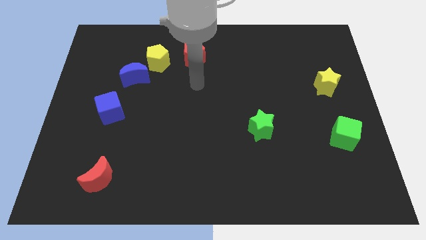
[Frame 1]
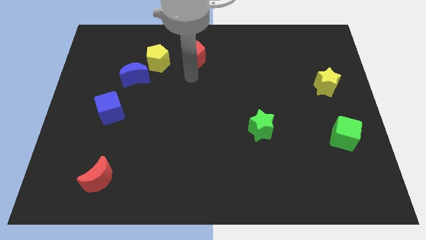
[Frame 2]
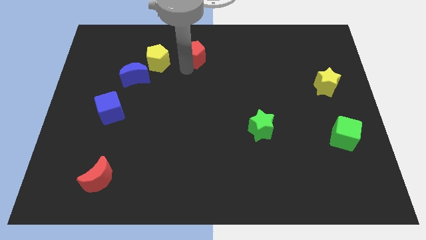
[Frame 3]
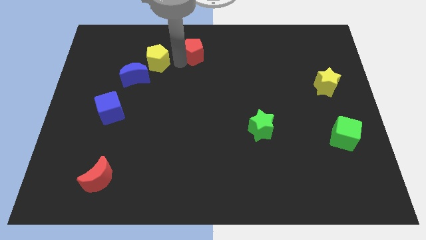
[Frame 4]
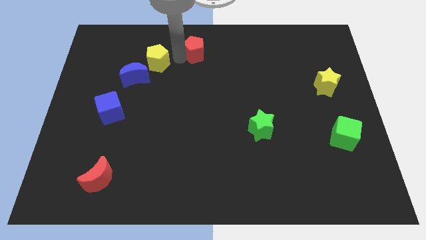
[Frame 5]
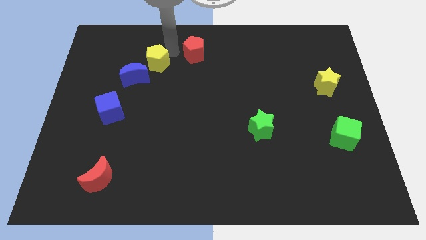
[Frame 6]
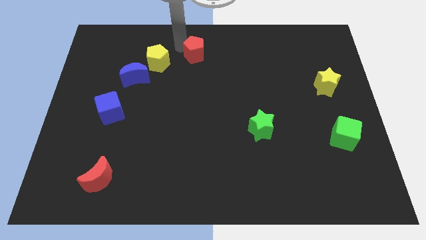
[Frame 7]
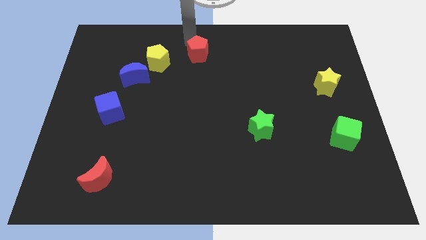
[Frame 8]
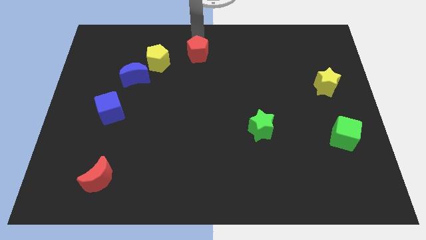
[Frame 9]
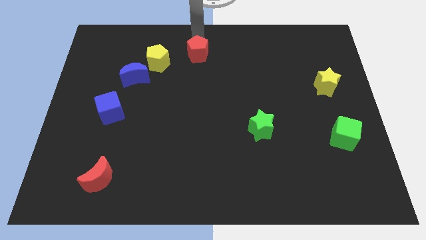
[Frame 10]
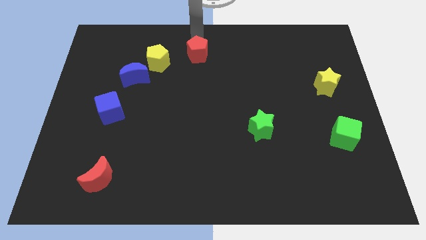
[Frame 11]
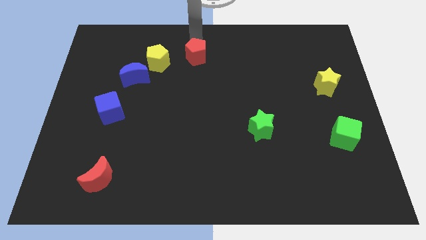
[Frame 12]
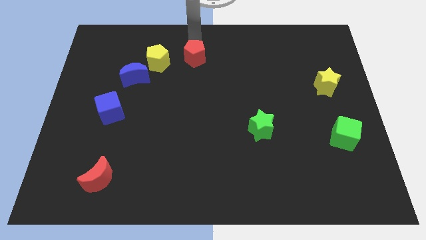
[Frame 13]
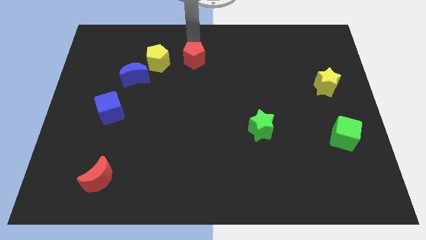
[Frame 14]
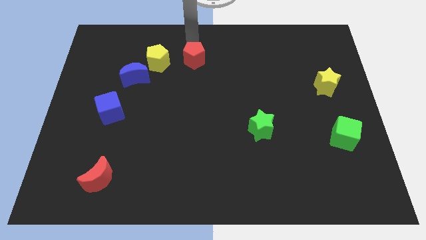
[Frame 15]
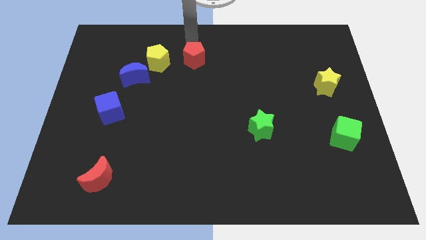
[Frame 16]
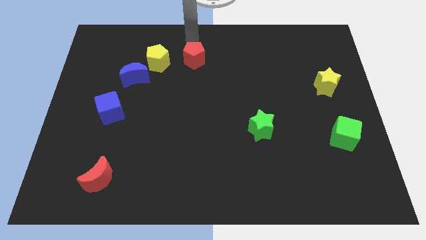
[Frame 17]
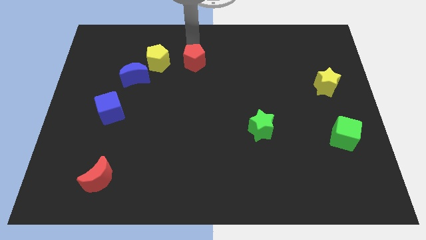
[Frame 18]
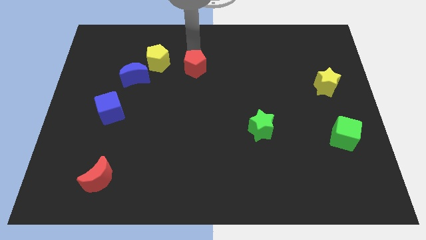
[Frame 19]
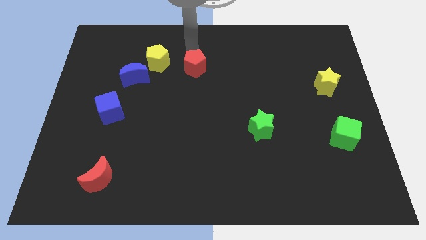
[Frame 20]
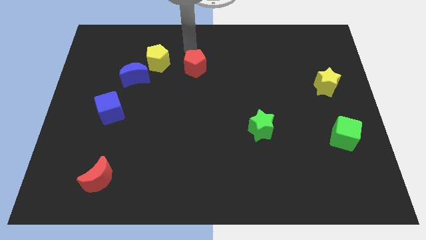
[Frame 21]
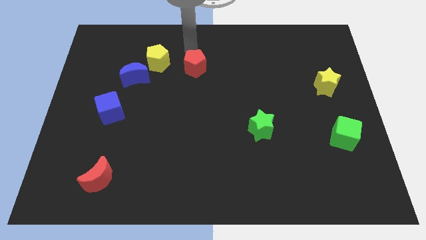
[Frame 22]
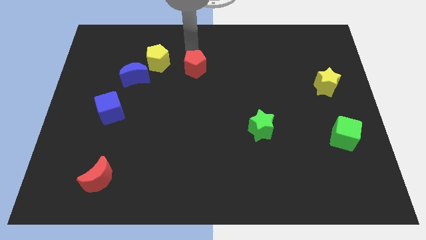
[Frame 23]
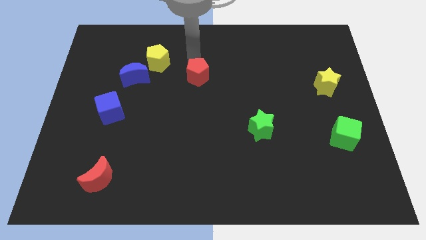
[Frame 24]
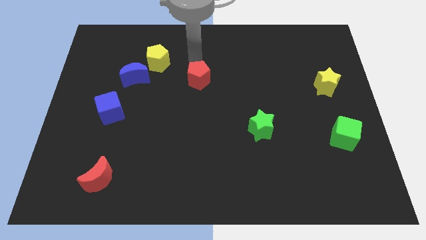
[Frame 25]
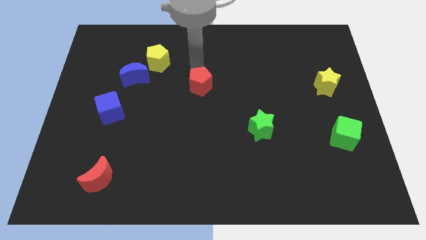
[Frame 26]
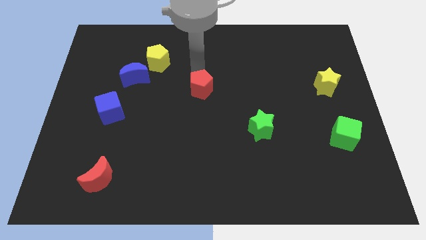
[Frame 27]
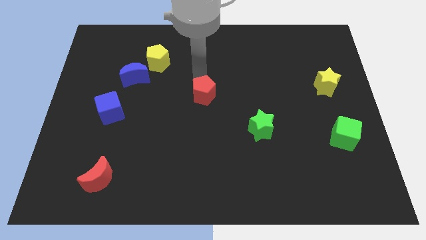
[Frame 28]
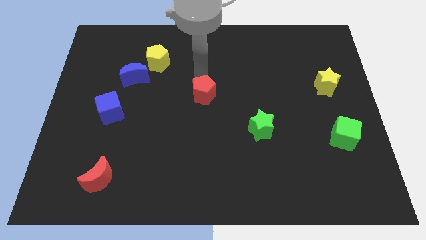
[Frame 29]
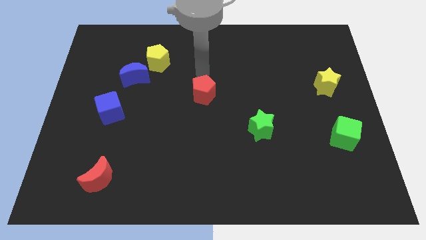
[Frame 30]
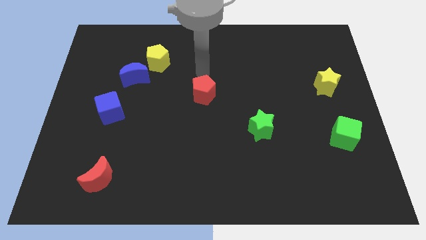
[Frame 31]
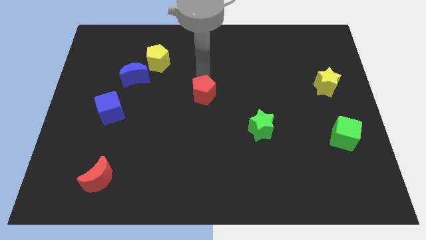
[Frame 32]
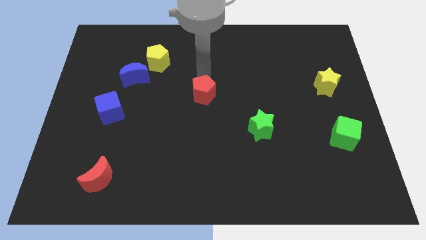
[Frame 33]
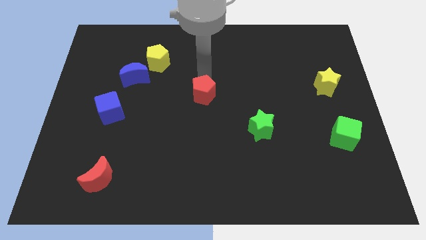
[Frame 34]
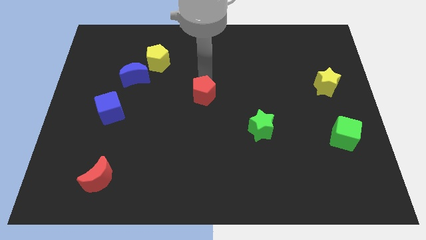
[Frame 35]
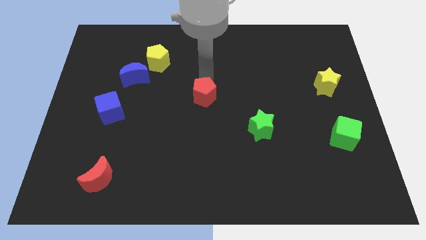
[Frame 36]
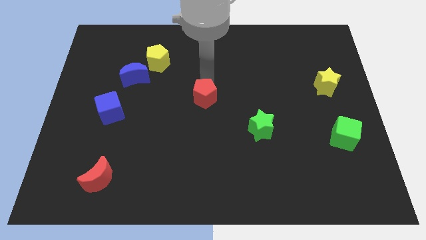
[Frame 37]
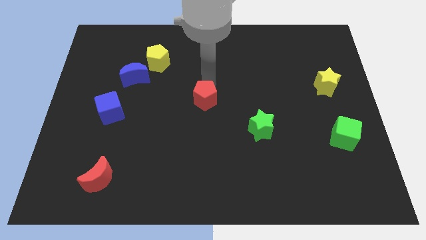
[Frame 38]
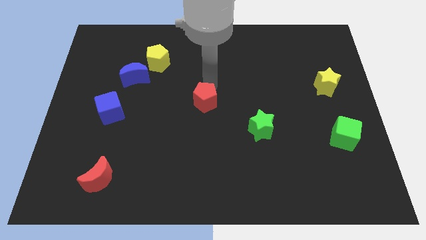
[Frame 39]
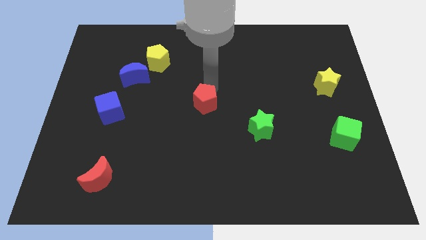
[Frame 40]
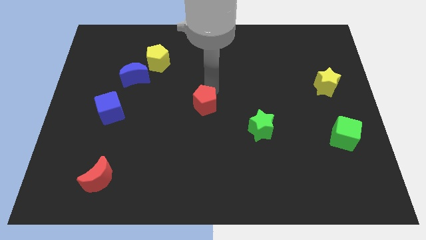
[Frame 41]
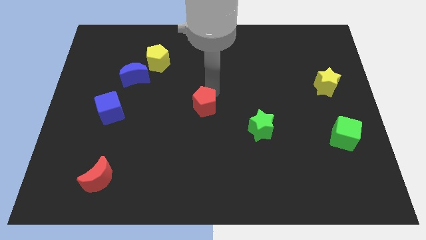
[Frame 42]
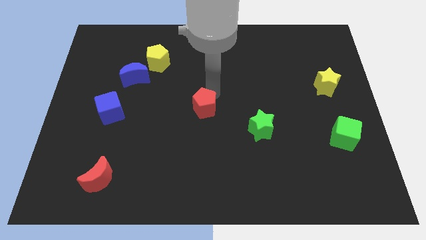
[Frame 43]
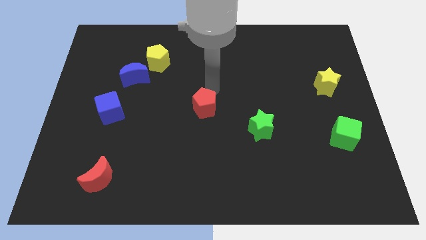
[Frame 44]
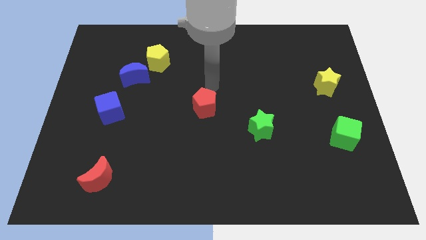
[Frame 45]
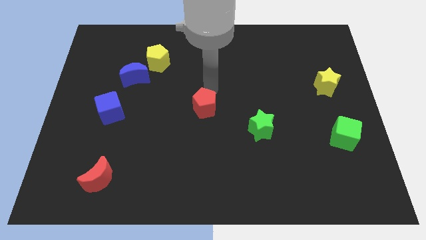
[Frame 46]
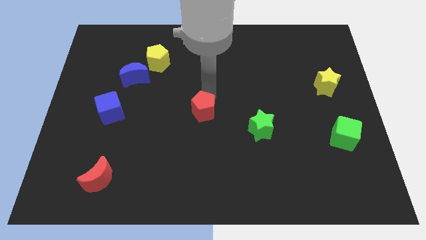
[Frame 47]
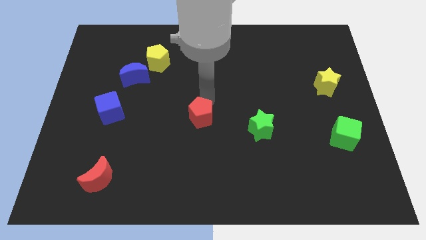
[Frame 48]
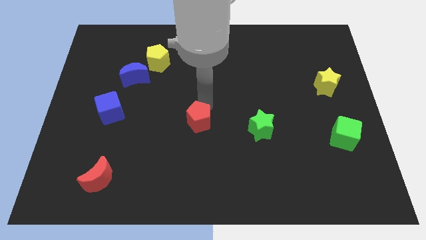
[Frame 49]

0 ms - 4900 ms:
slide the red pentagon downwards

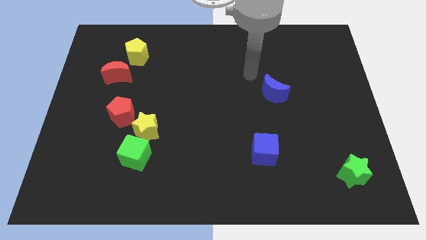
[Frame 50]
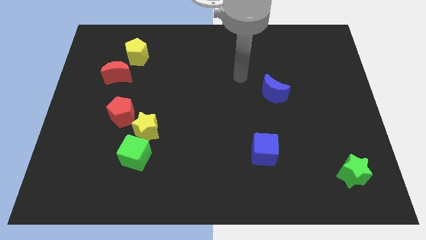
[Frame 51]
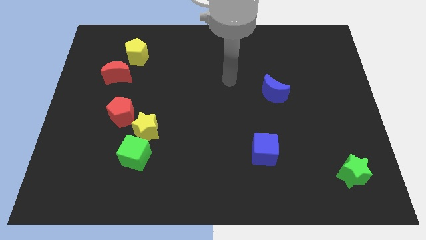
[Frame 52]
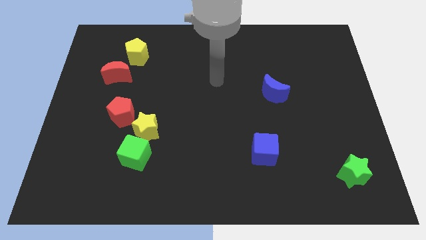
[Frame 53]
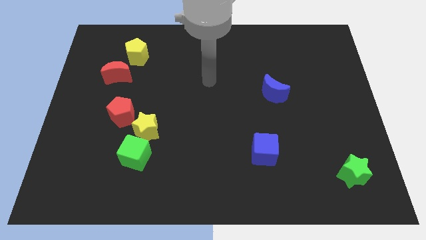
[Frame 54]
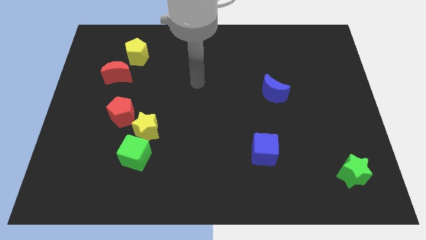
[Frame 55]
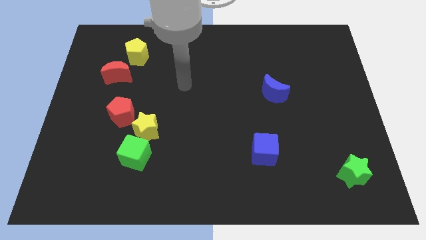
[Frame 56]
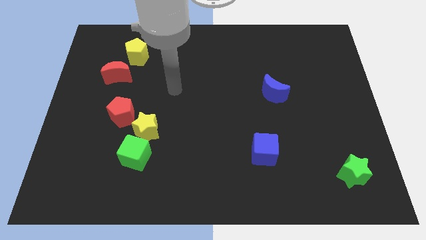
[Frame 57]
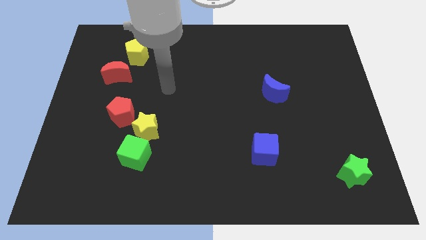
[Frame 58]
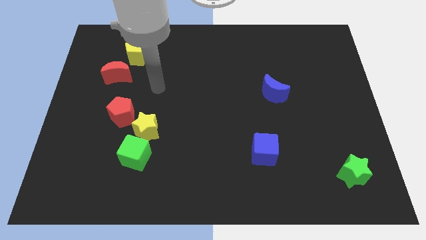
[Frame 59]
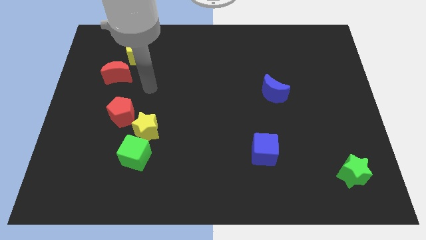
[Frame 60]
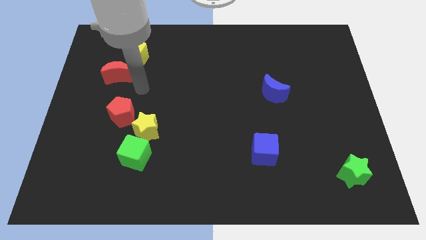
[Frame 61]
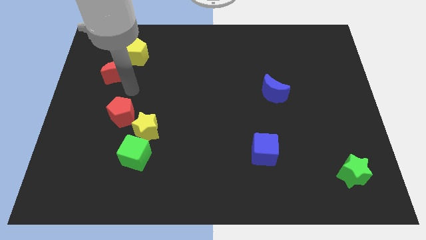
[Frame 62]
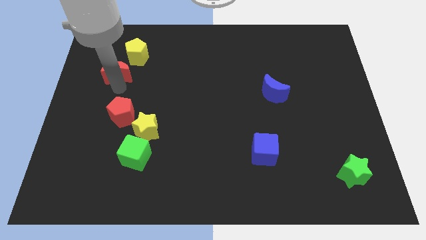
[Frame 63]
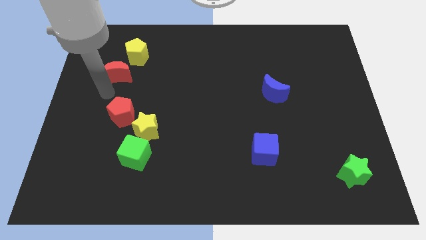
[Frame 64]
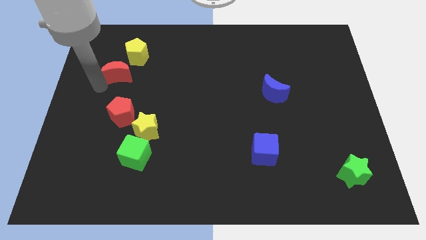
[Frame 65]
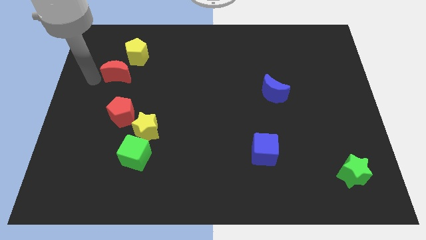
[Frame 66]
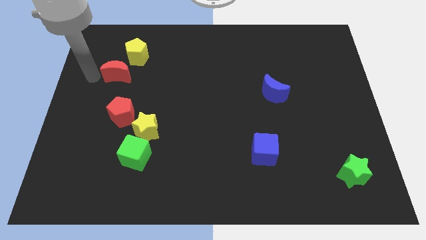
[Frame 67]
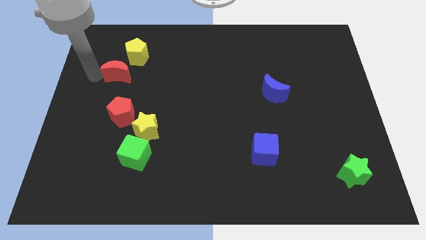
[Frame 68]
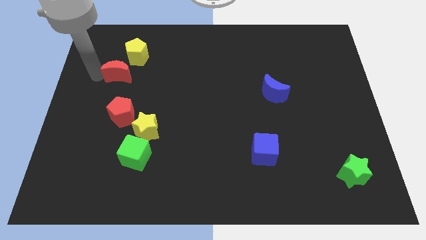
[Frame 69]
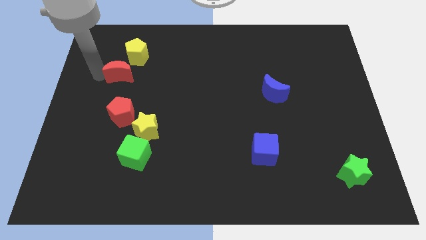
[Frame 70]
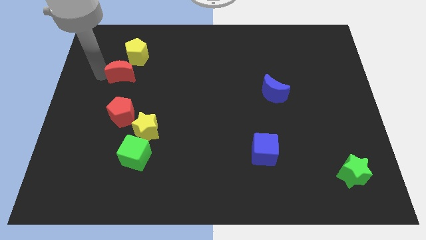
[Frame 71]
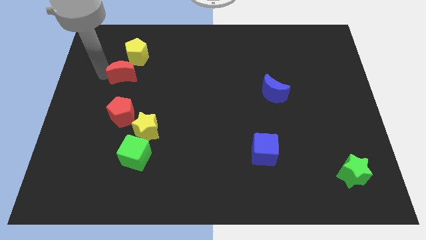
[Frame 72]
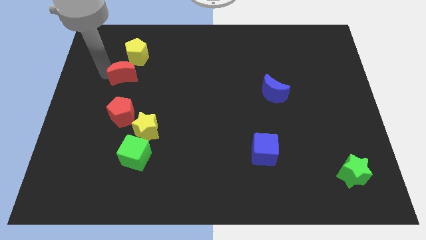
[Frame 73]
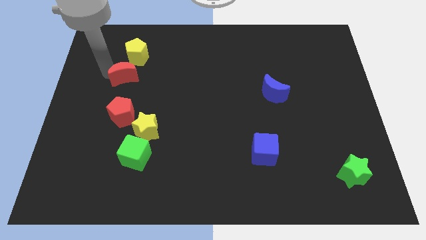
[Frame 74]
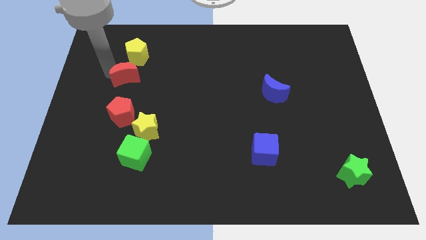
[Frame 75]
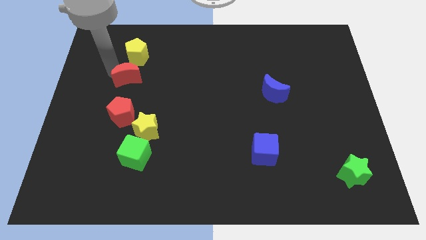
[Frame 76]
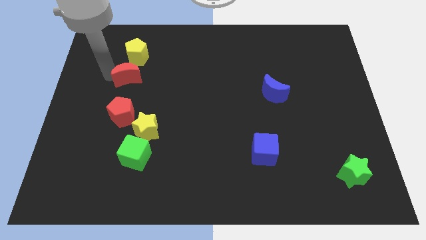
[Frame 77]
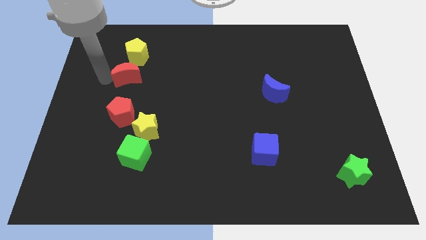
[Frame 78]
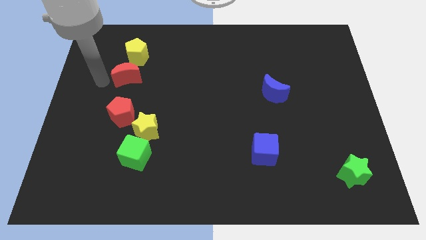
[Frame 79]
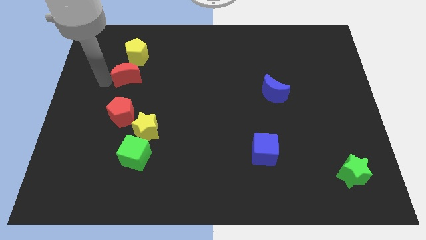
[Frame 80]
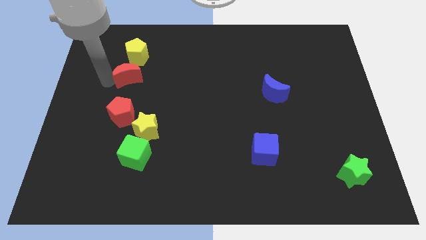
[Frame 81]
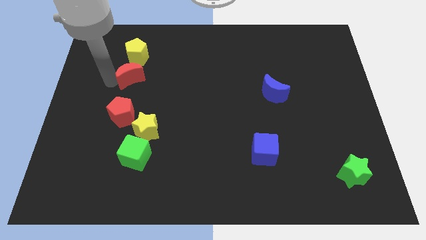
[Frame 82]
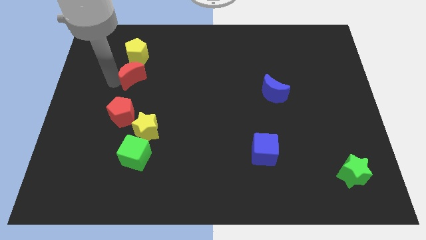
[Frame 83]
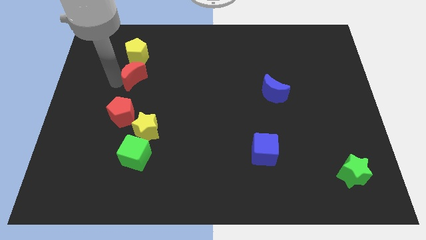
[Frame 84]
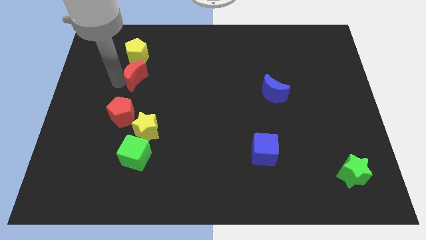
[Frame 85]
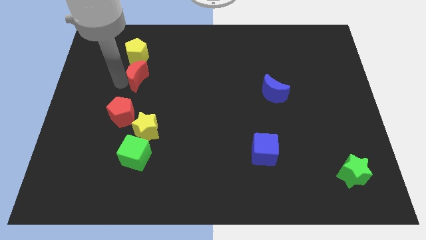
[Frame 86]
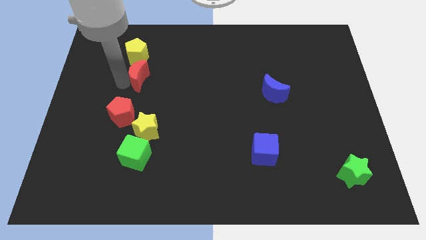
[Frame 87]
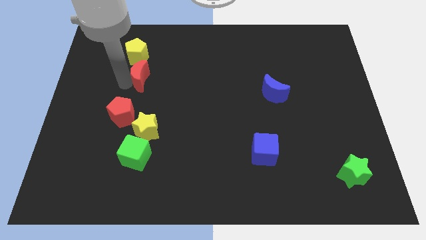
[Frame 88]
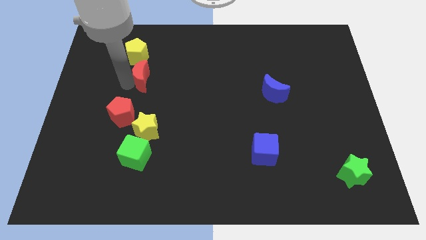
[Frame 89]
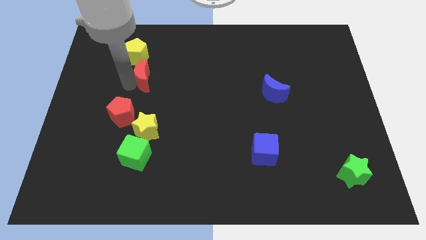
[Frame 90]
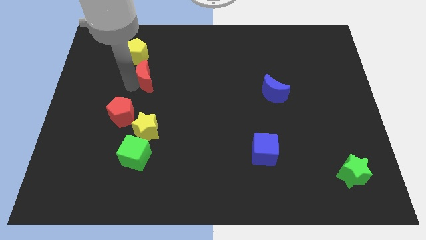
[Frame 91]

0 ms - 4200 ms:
slightly slide the red moon right
